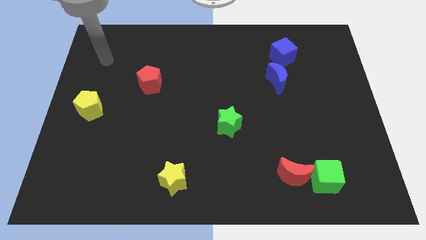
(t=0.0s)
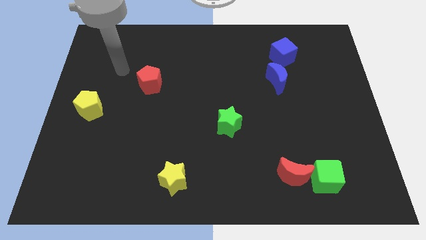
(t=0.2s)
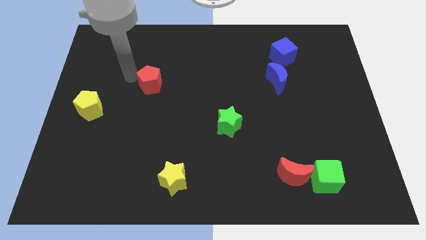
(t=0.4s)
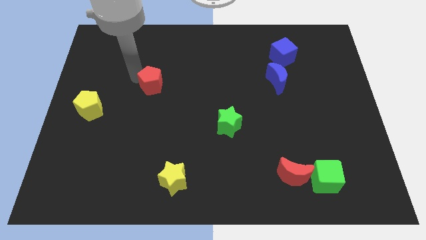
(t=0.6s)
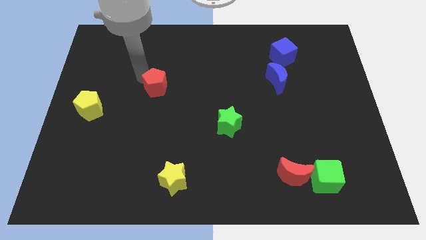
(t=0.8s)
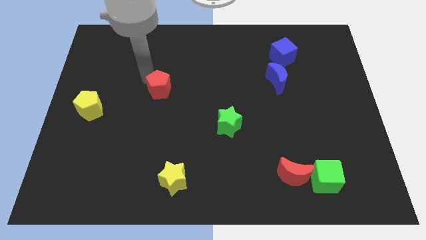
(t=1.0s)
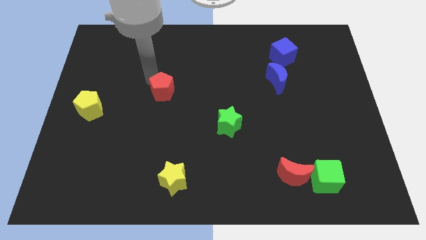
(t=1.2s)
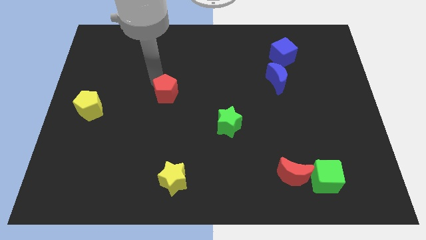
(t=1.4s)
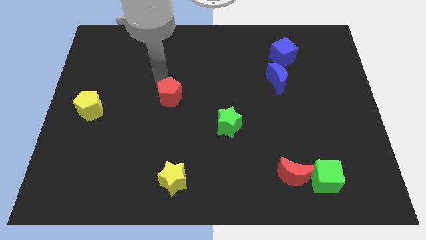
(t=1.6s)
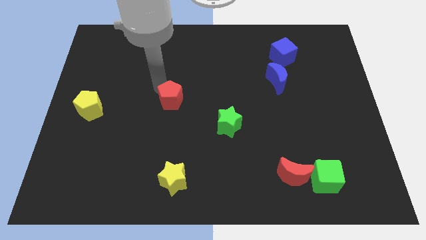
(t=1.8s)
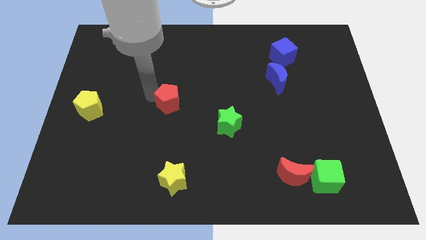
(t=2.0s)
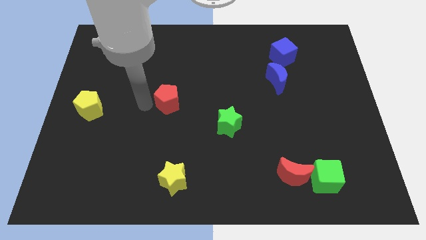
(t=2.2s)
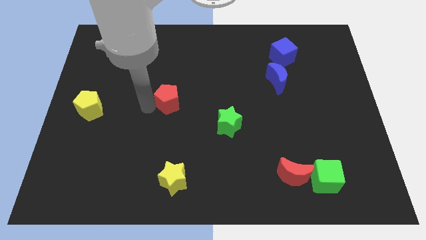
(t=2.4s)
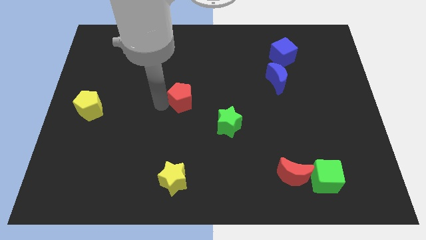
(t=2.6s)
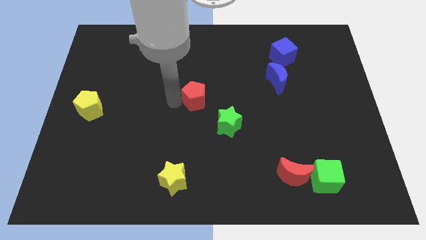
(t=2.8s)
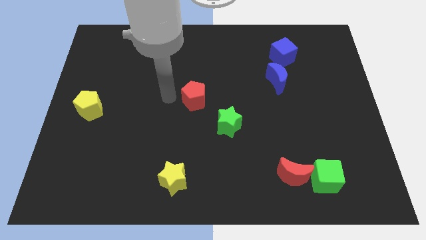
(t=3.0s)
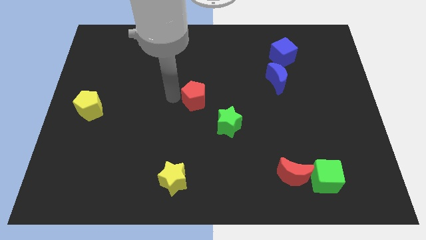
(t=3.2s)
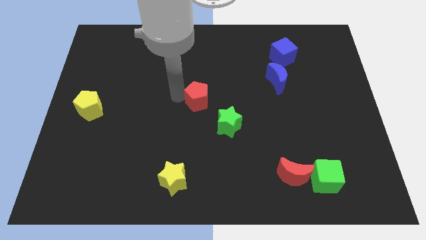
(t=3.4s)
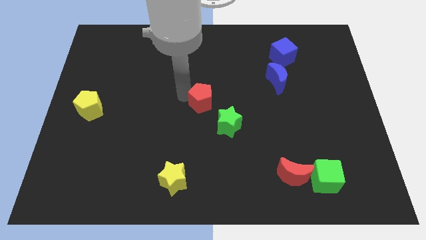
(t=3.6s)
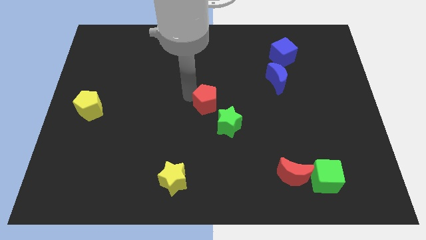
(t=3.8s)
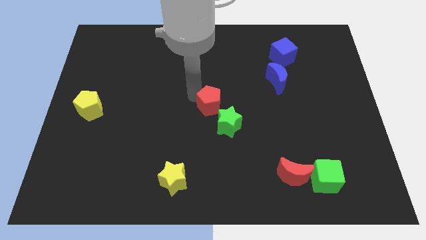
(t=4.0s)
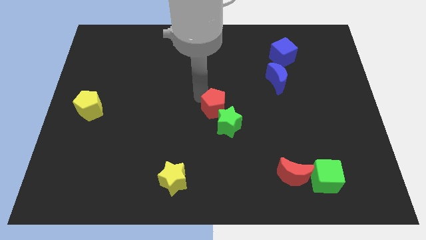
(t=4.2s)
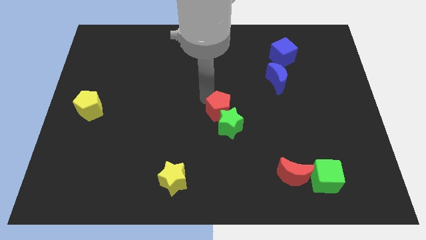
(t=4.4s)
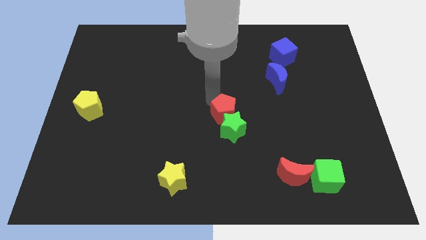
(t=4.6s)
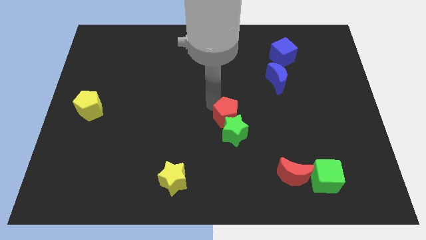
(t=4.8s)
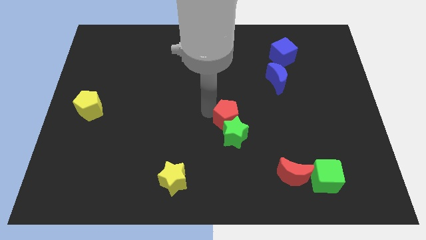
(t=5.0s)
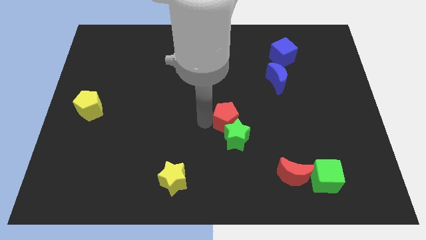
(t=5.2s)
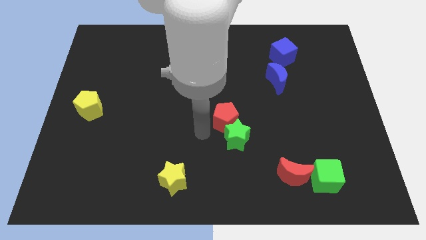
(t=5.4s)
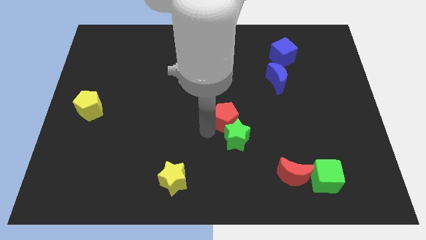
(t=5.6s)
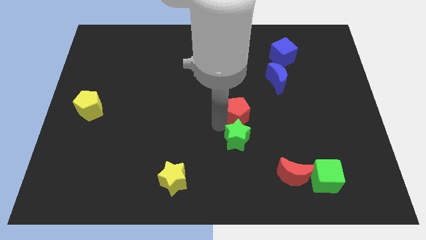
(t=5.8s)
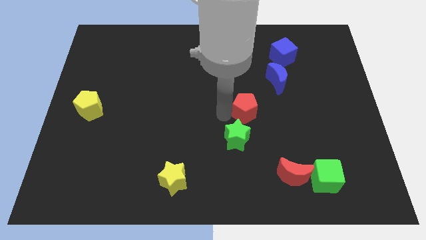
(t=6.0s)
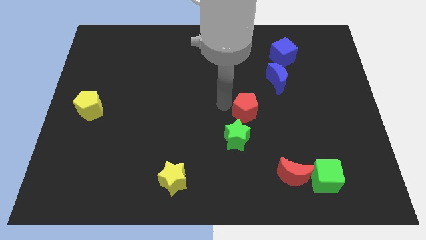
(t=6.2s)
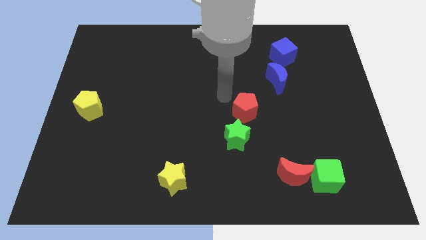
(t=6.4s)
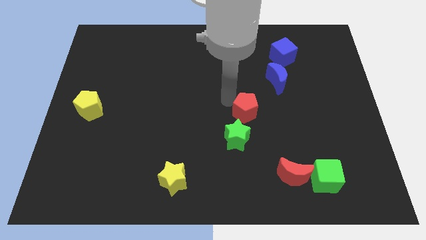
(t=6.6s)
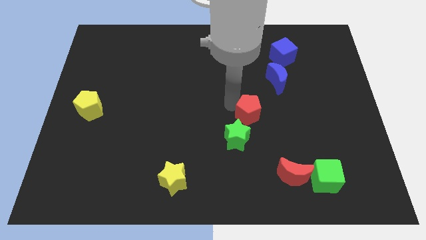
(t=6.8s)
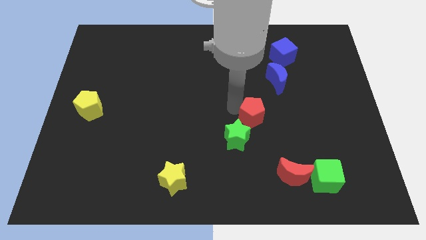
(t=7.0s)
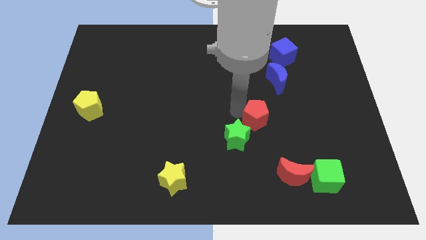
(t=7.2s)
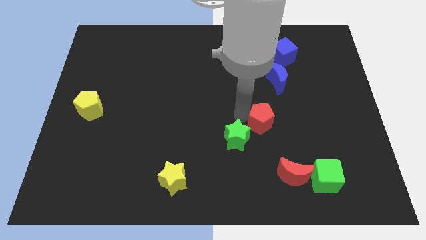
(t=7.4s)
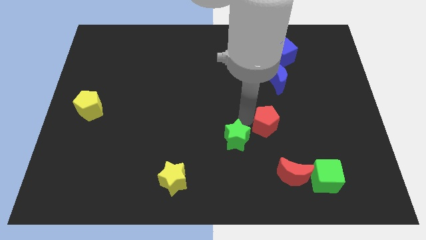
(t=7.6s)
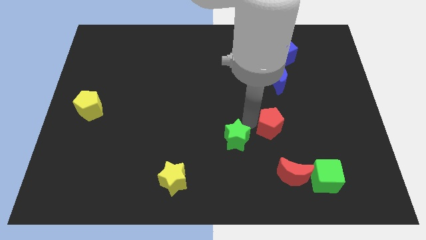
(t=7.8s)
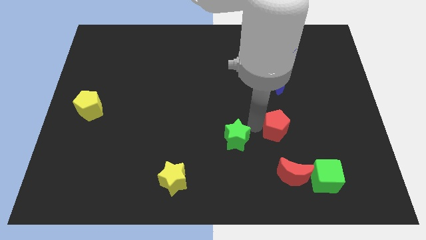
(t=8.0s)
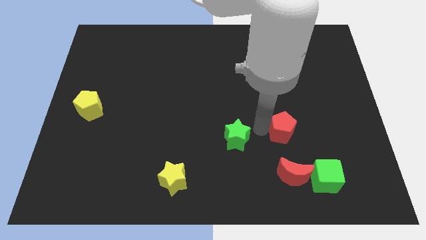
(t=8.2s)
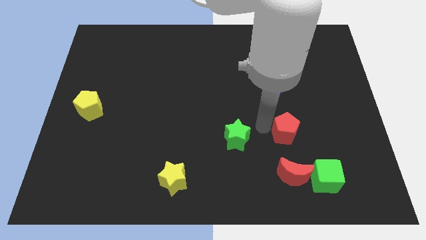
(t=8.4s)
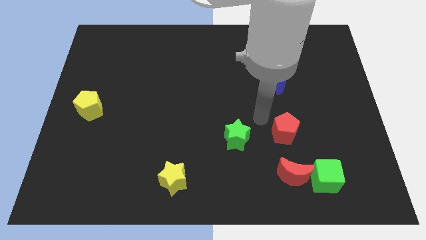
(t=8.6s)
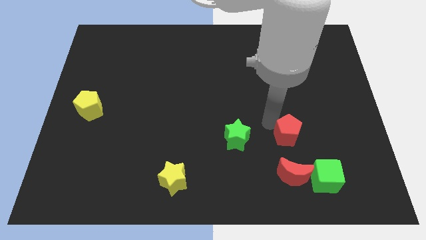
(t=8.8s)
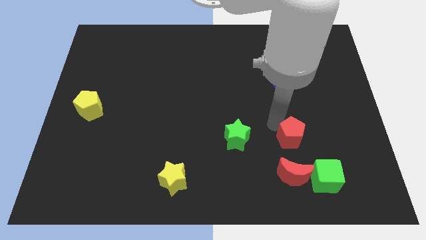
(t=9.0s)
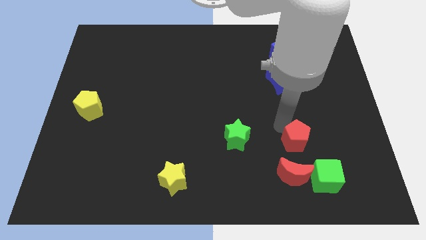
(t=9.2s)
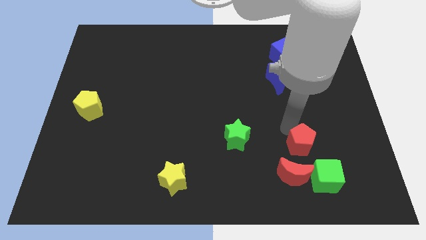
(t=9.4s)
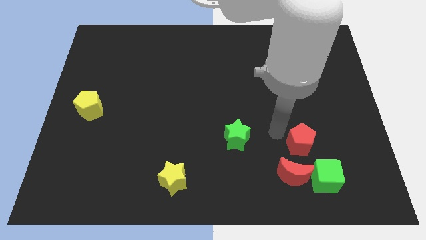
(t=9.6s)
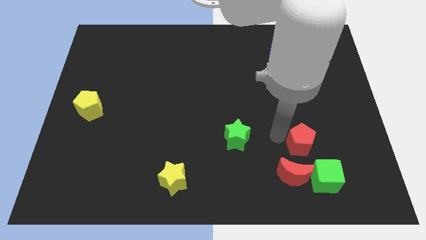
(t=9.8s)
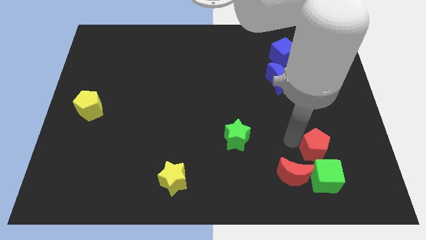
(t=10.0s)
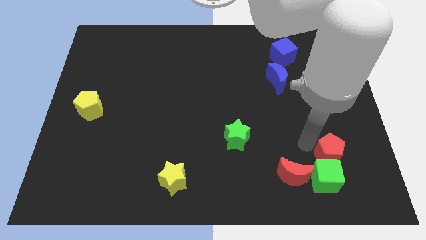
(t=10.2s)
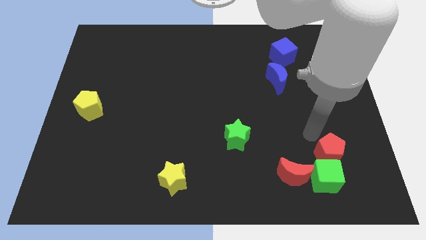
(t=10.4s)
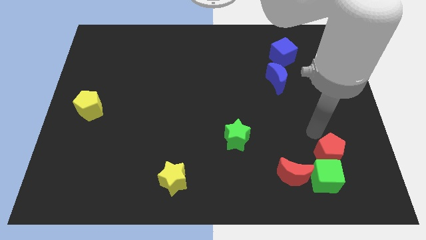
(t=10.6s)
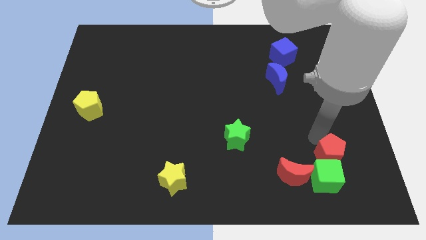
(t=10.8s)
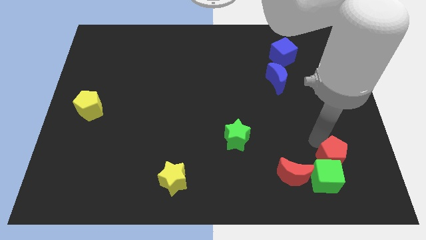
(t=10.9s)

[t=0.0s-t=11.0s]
put the red pentagon just right of the red moon
